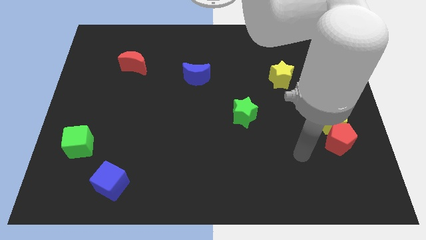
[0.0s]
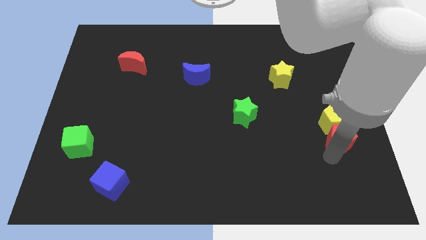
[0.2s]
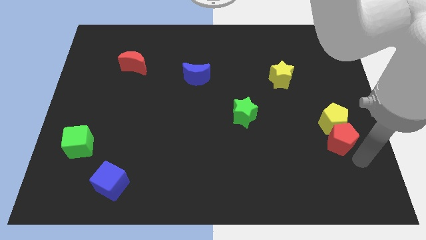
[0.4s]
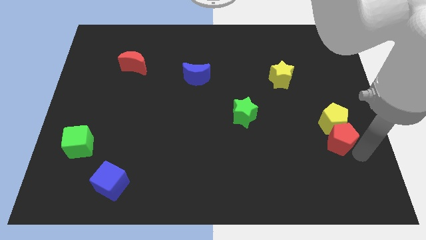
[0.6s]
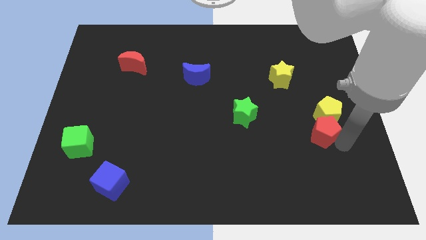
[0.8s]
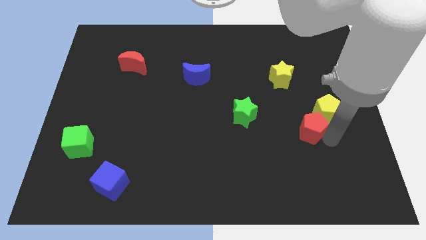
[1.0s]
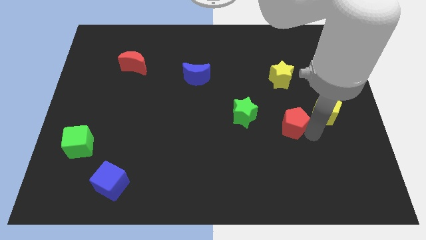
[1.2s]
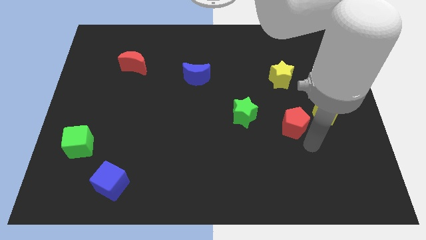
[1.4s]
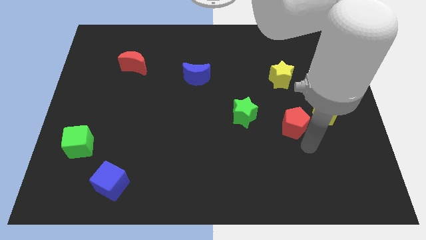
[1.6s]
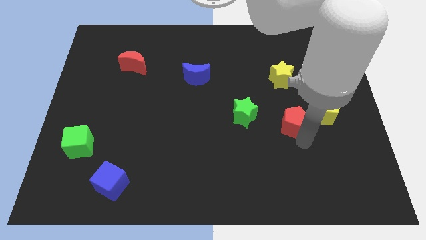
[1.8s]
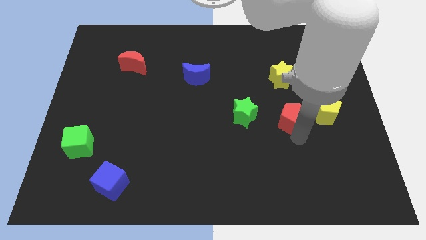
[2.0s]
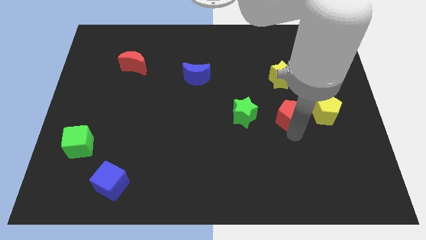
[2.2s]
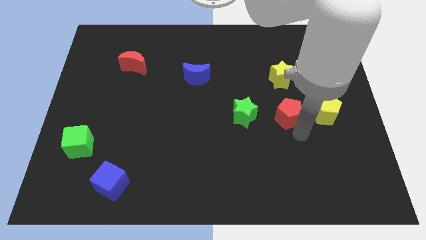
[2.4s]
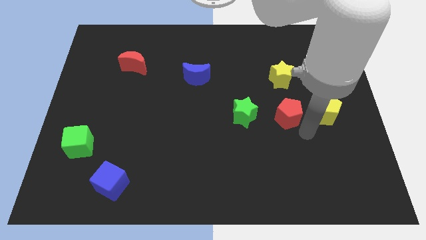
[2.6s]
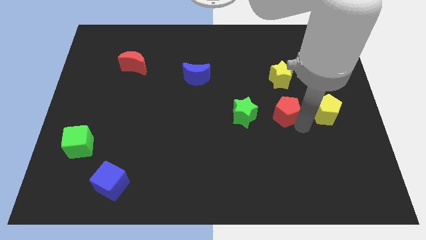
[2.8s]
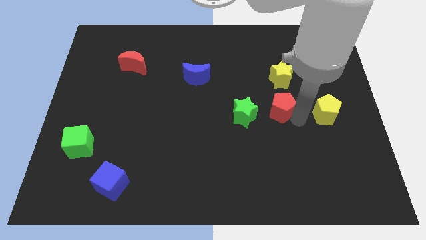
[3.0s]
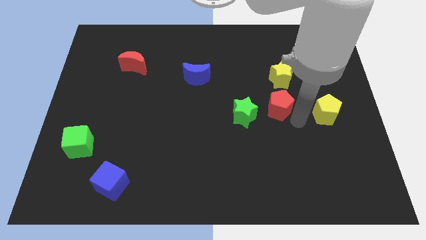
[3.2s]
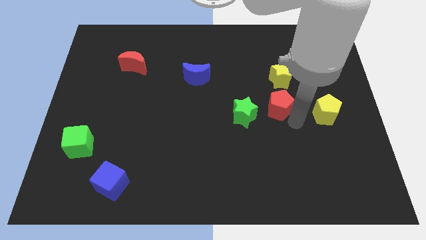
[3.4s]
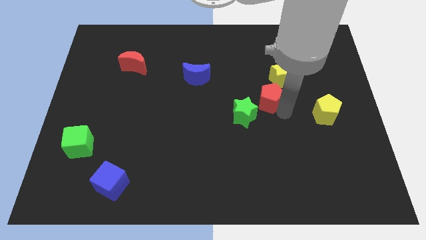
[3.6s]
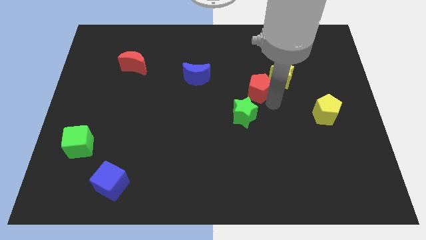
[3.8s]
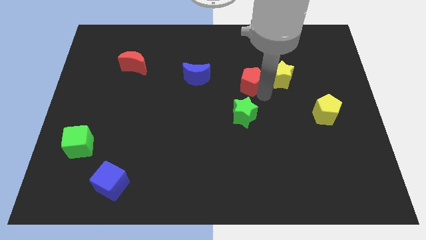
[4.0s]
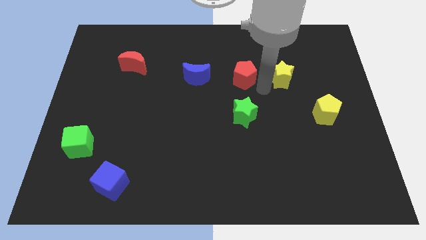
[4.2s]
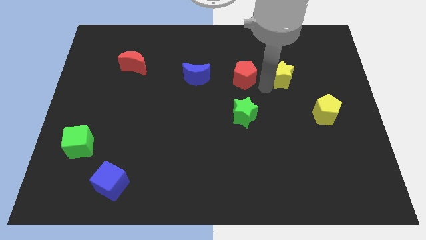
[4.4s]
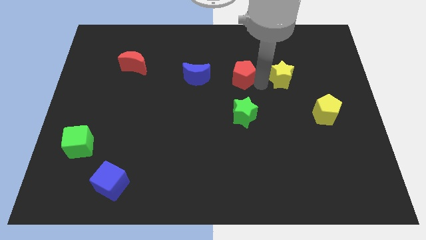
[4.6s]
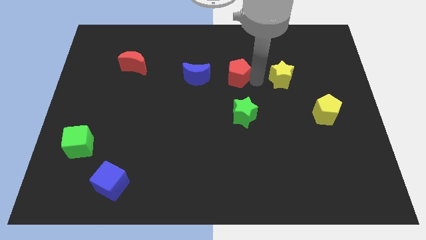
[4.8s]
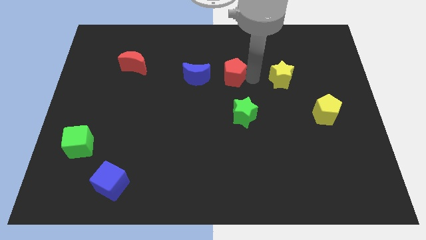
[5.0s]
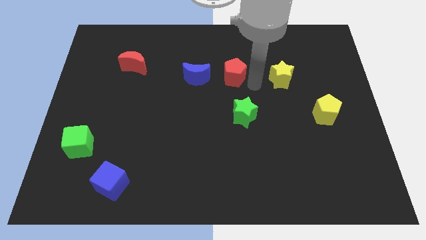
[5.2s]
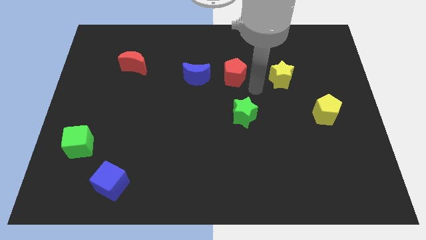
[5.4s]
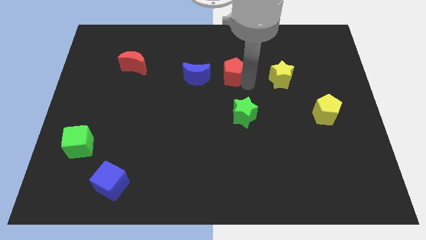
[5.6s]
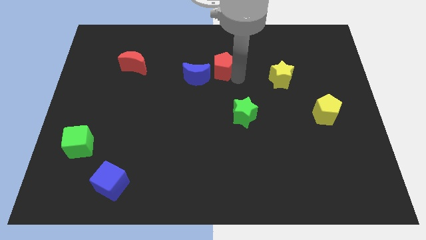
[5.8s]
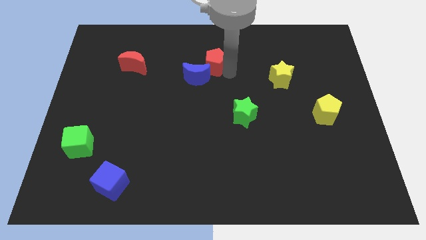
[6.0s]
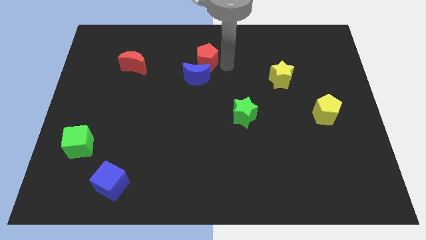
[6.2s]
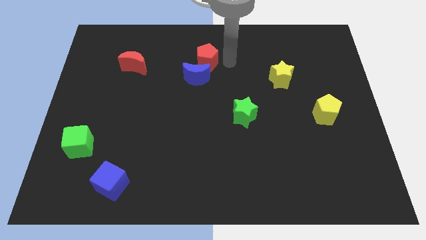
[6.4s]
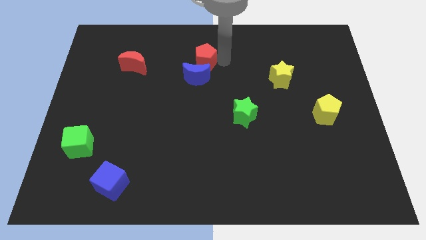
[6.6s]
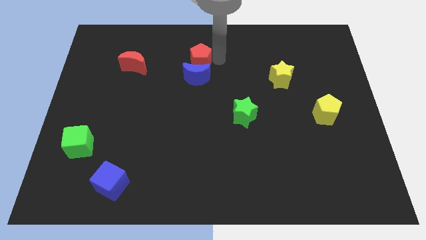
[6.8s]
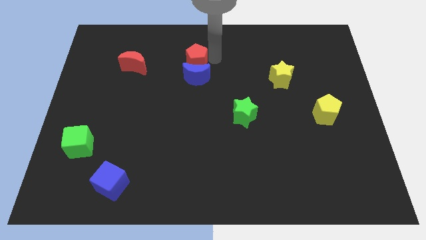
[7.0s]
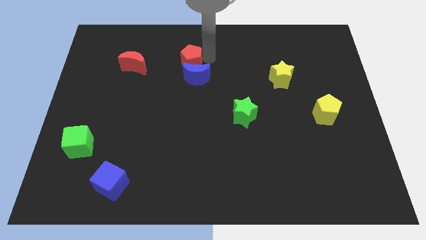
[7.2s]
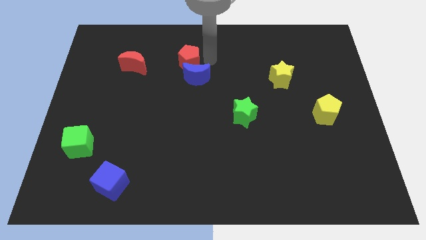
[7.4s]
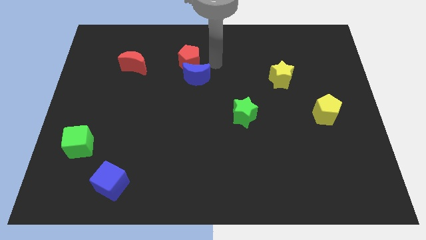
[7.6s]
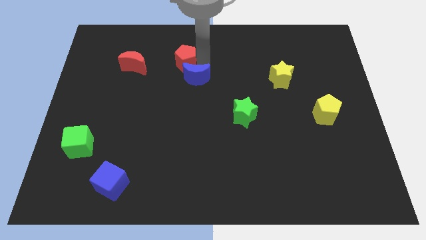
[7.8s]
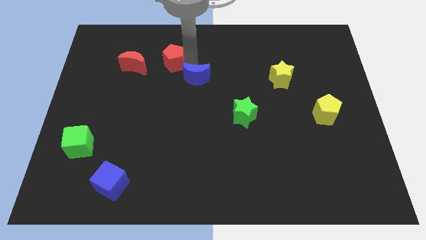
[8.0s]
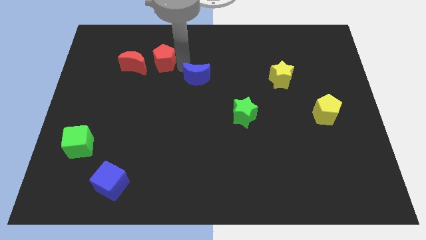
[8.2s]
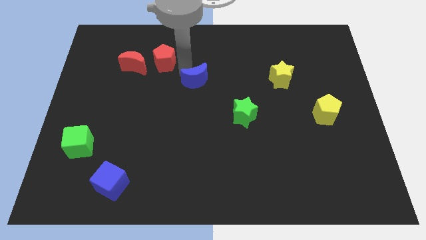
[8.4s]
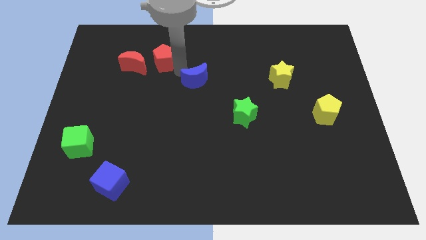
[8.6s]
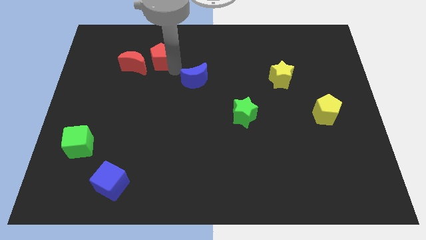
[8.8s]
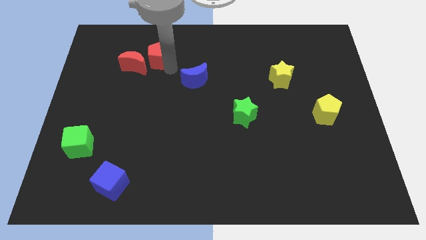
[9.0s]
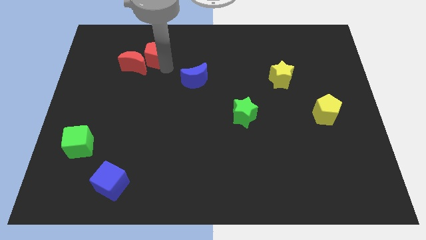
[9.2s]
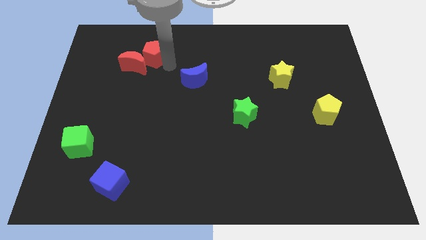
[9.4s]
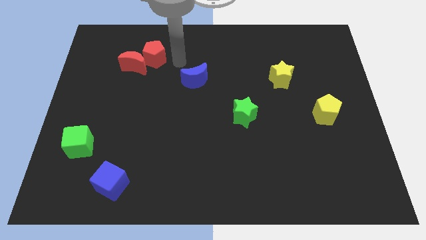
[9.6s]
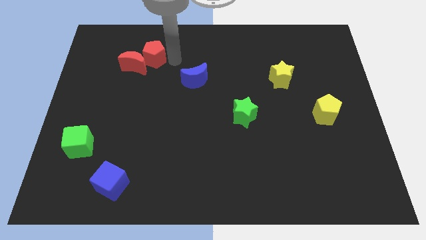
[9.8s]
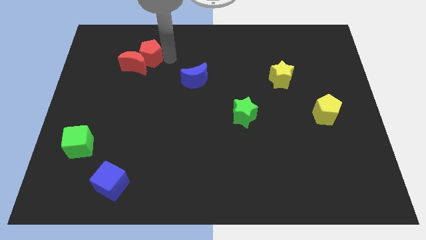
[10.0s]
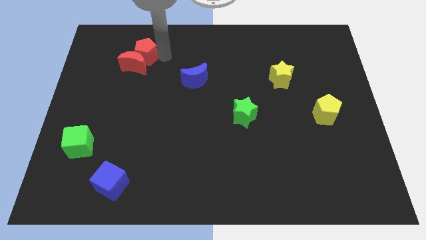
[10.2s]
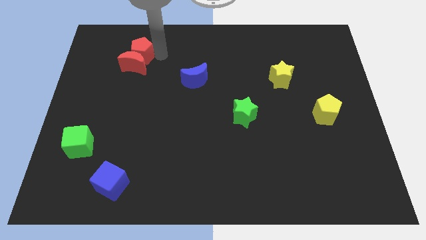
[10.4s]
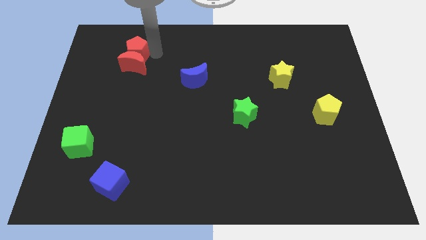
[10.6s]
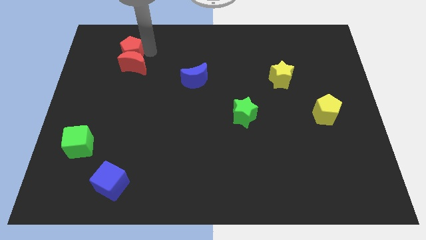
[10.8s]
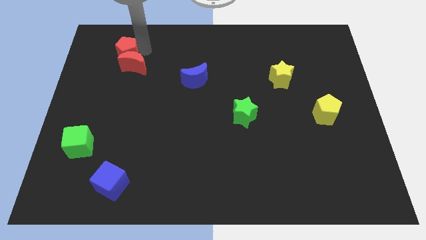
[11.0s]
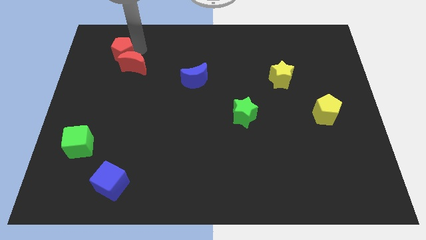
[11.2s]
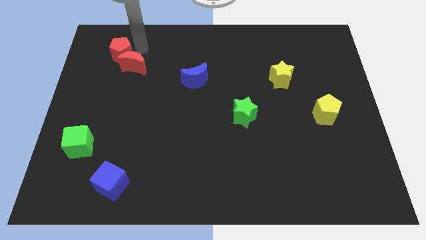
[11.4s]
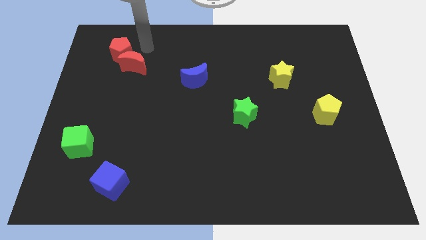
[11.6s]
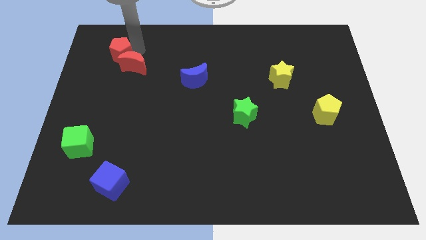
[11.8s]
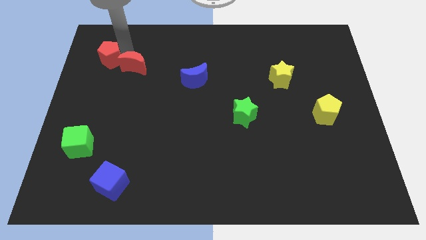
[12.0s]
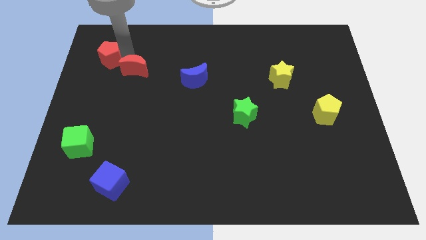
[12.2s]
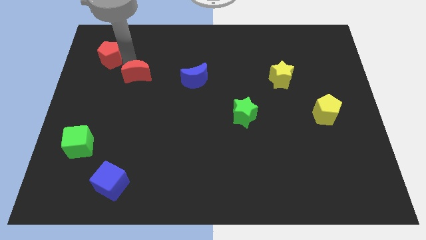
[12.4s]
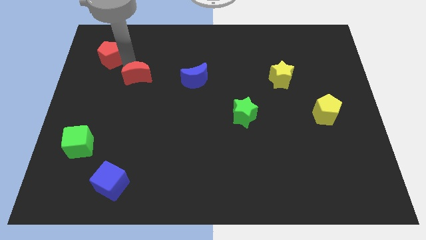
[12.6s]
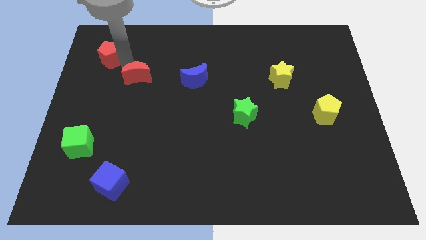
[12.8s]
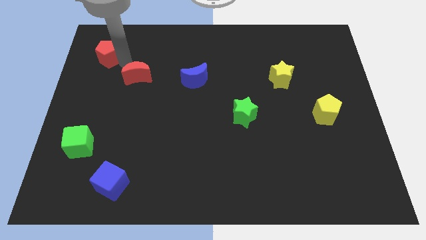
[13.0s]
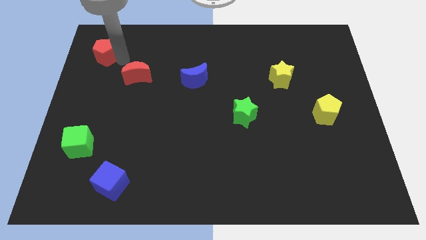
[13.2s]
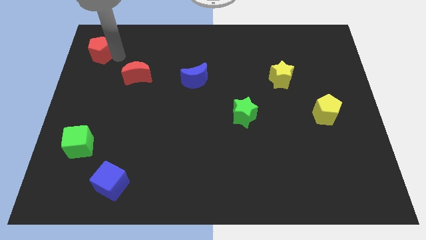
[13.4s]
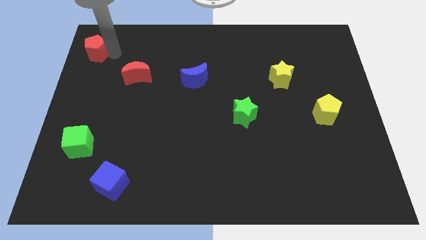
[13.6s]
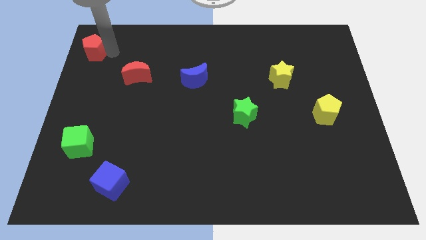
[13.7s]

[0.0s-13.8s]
put the red pentagon to the top left of the board
